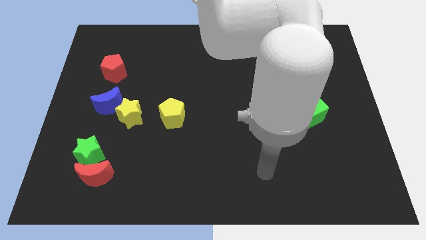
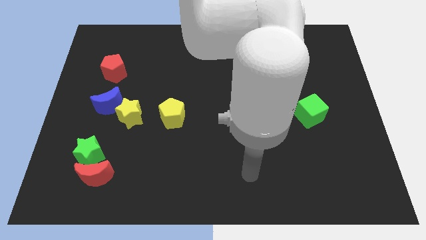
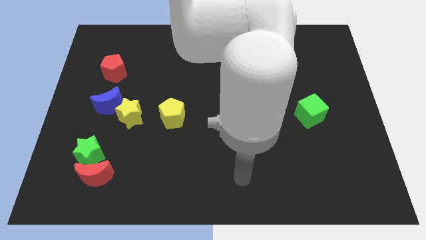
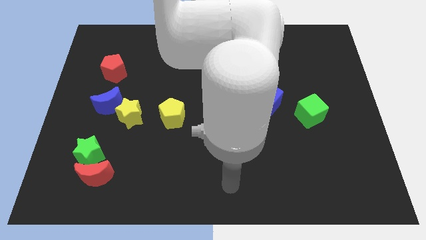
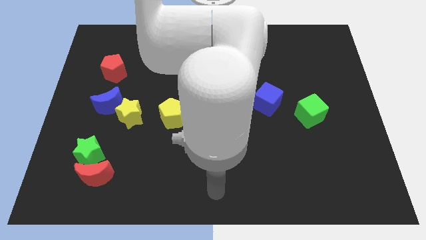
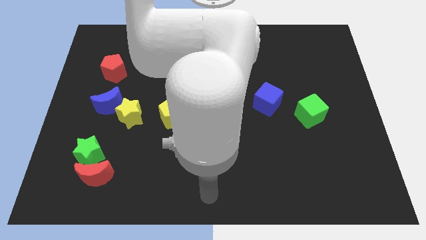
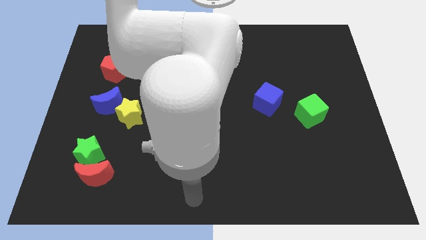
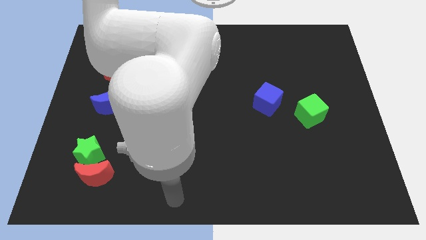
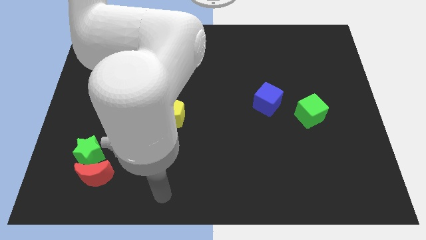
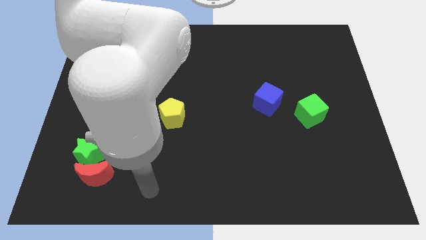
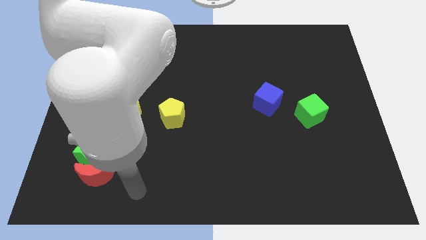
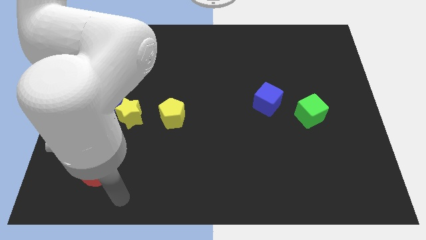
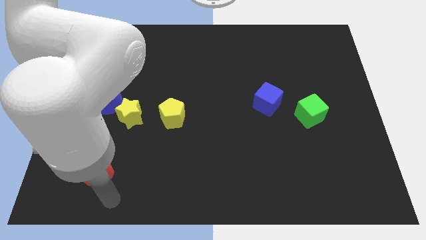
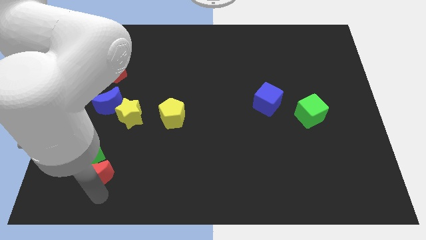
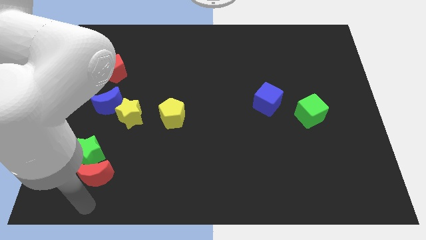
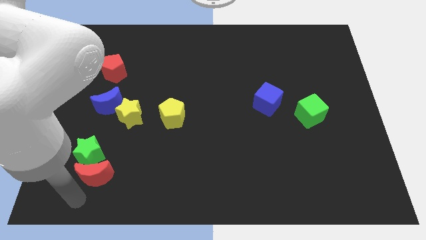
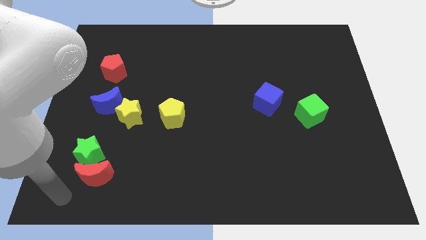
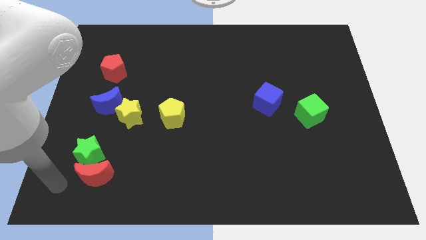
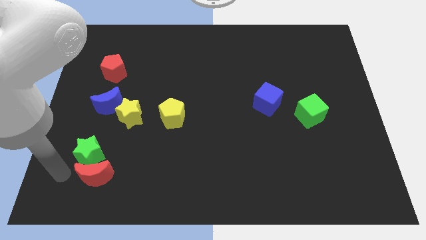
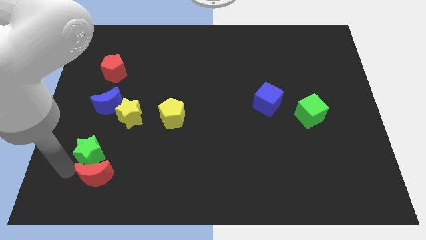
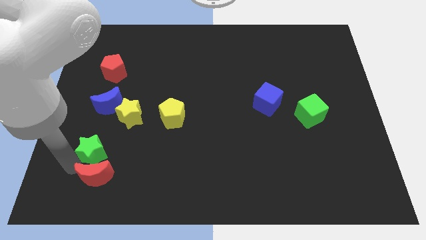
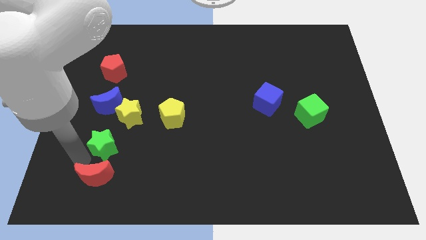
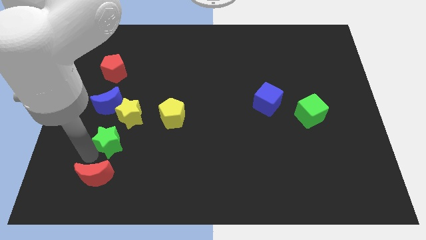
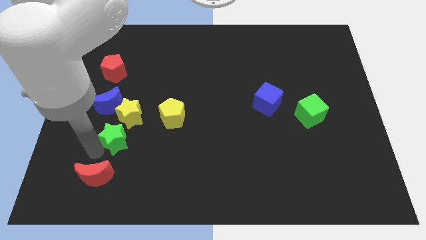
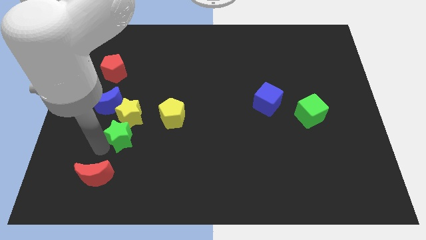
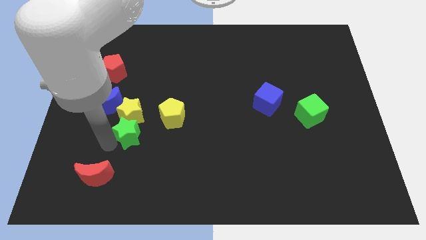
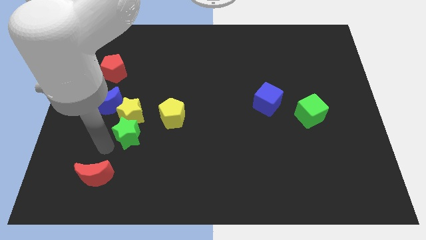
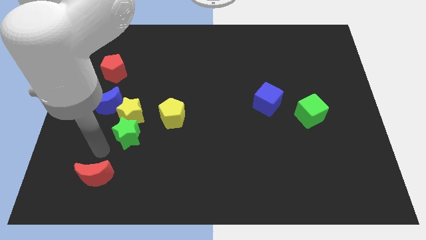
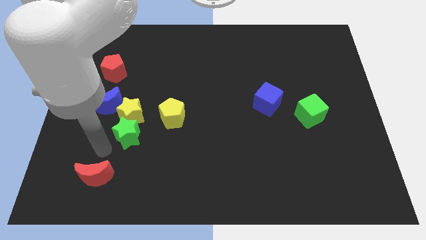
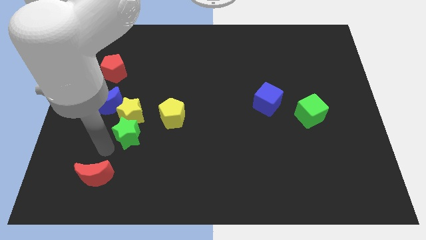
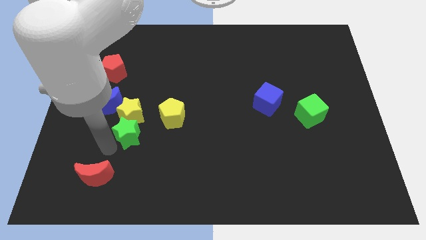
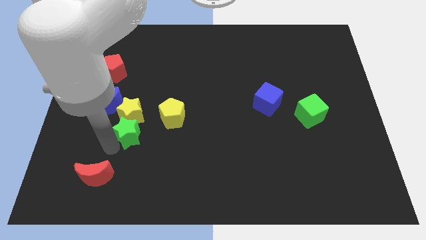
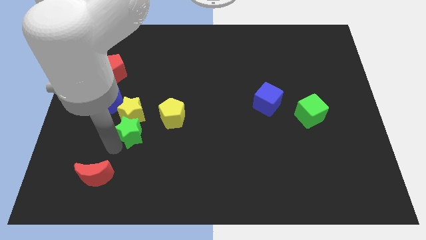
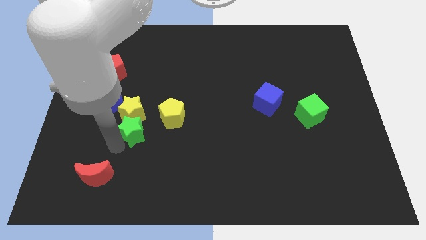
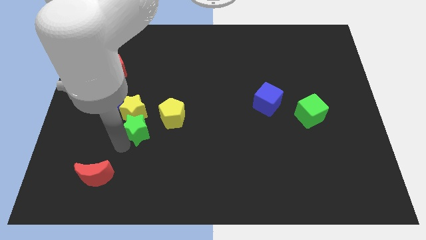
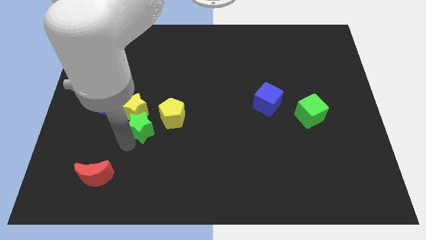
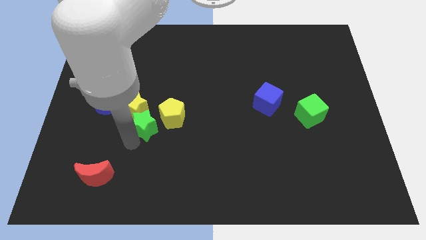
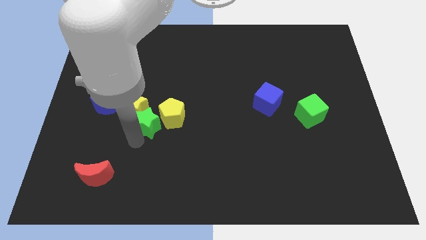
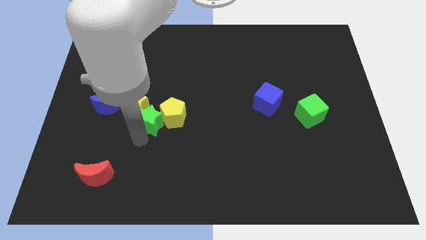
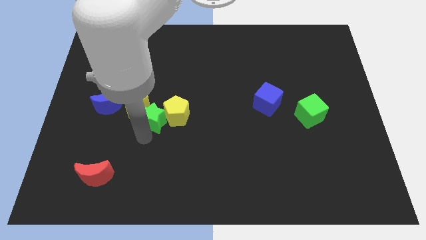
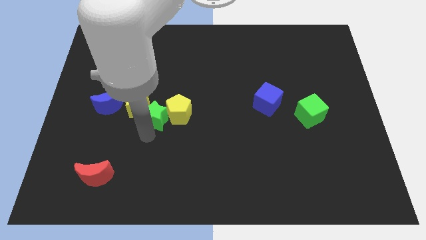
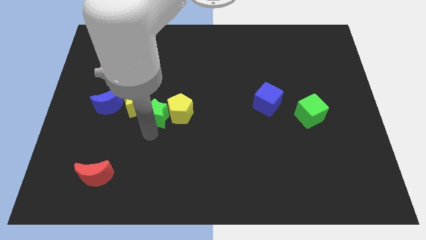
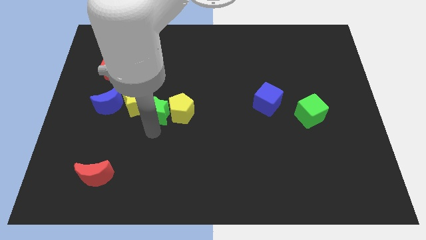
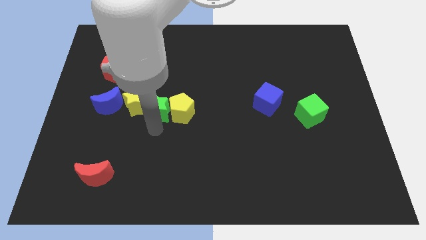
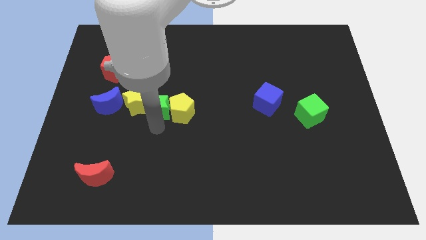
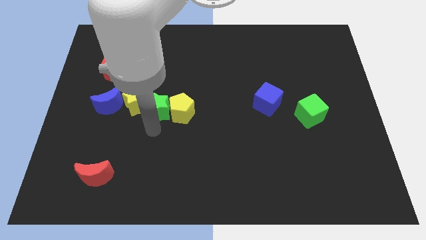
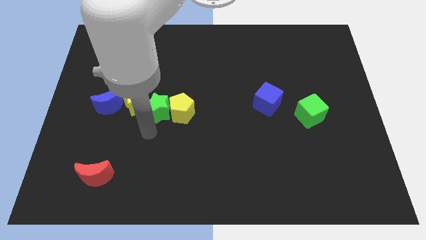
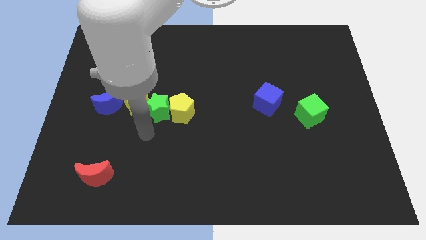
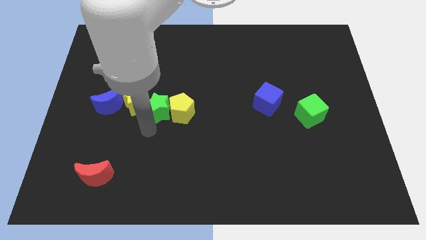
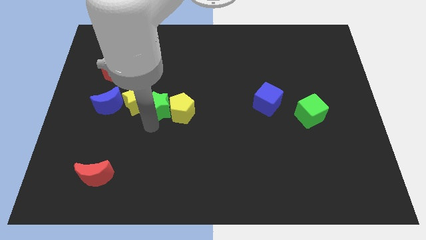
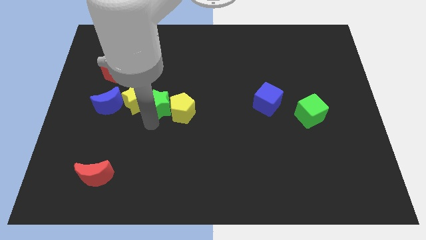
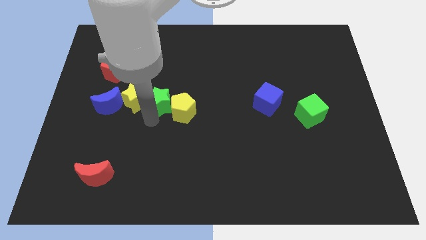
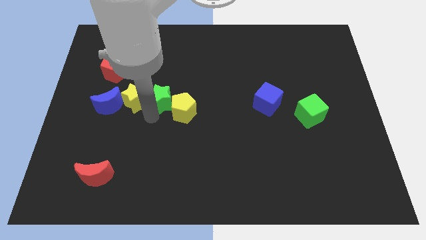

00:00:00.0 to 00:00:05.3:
push the green star upwards and right

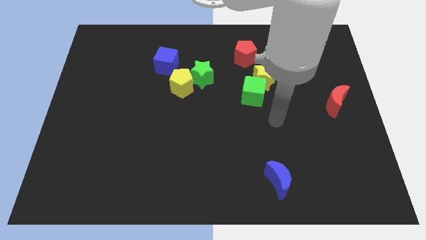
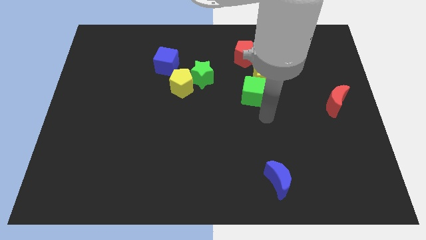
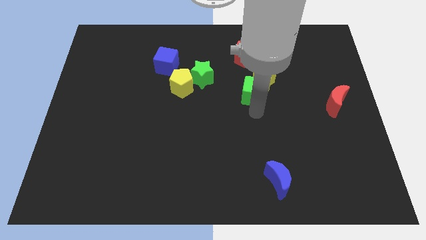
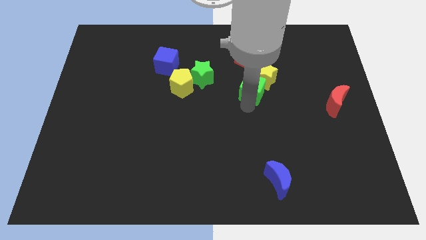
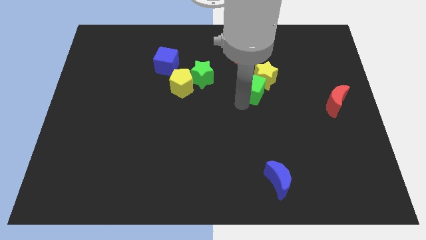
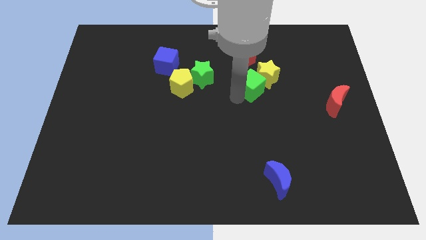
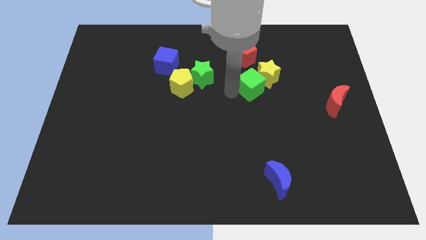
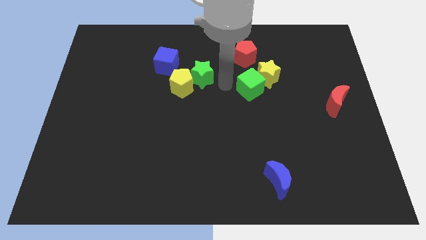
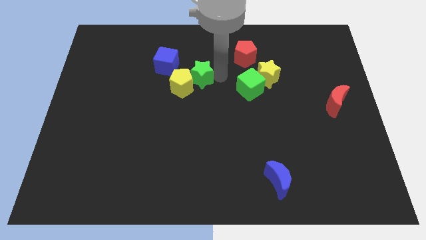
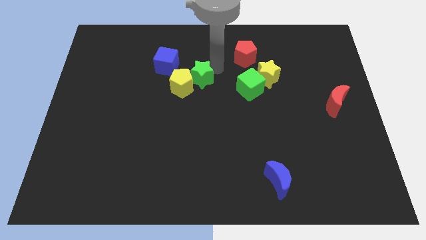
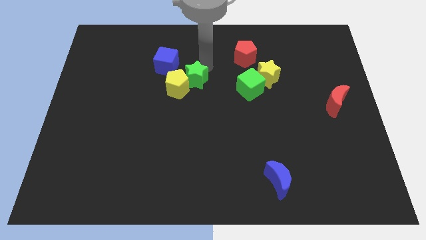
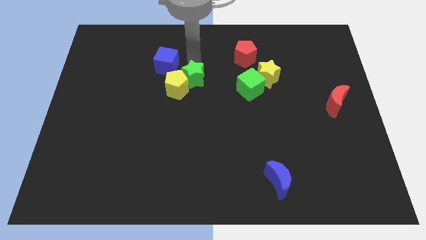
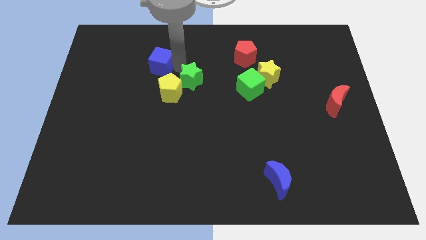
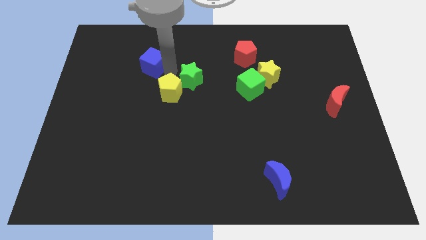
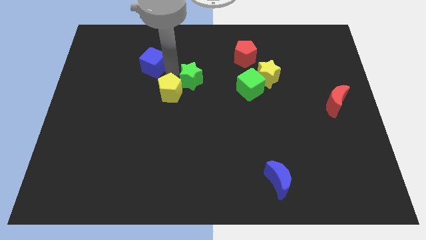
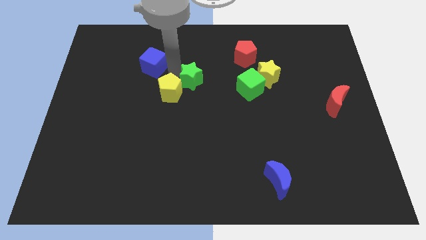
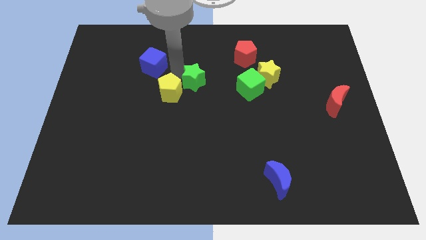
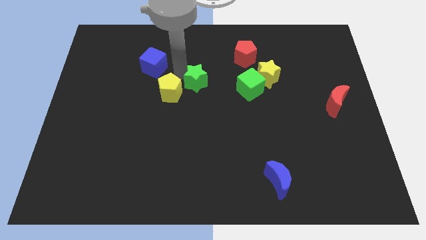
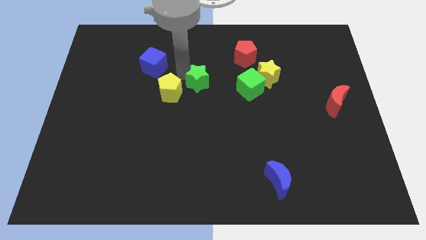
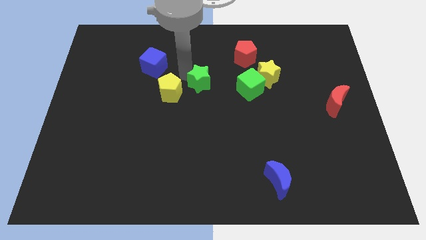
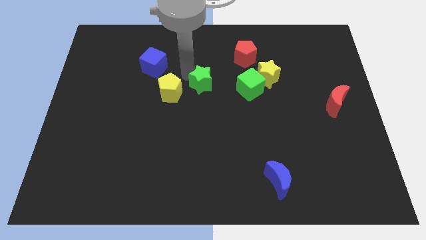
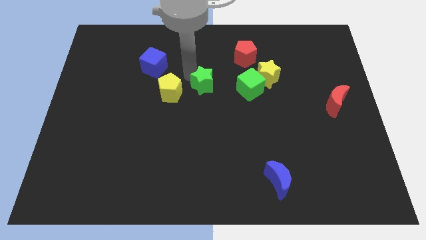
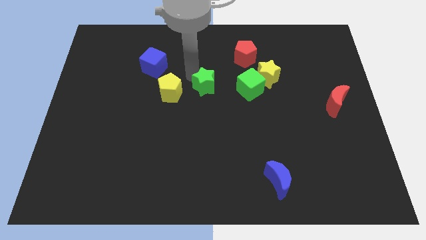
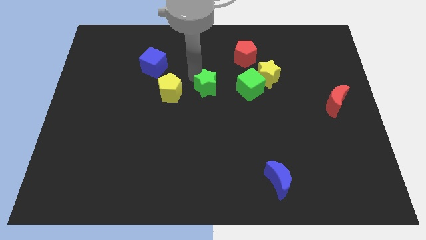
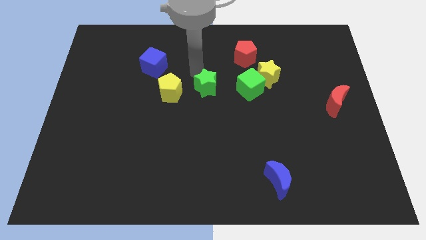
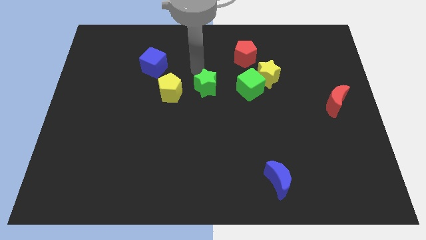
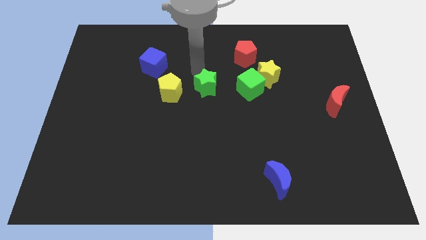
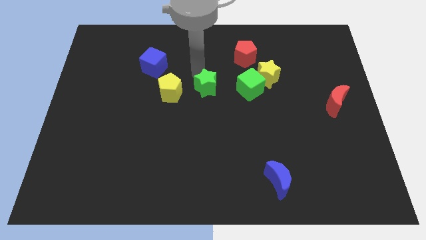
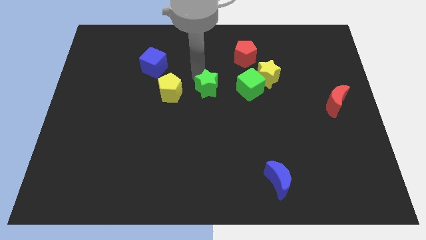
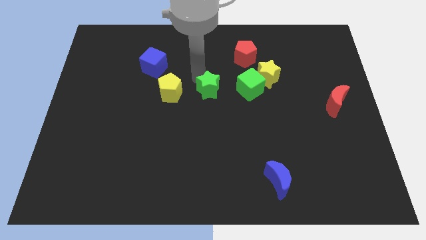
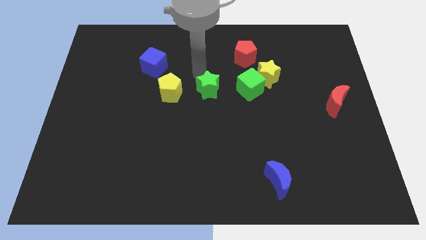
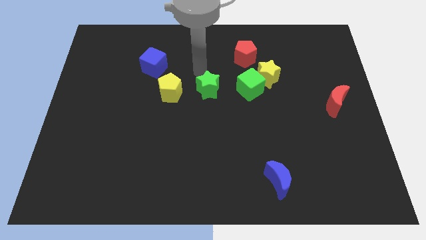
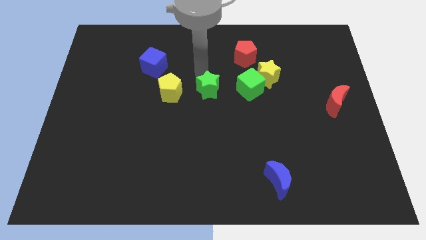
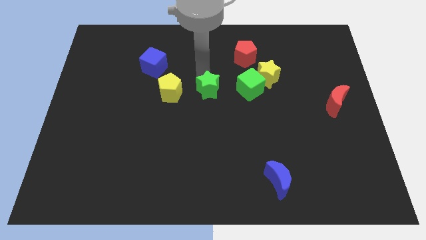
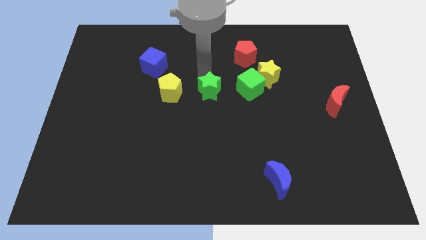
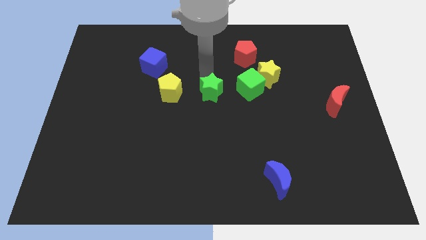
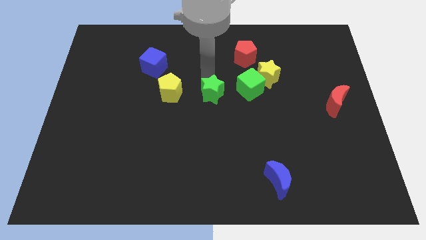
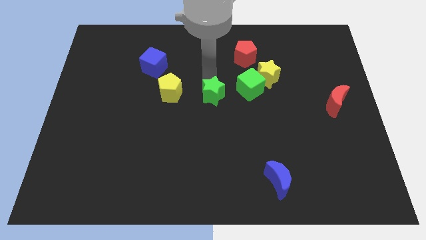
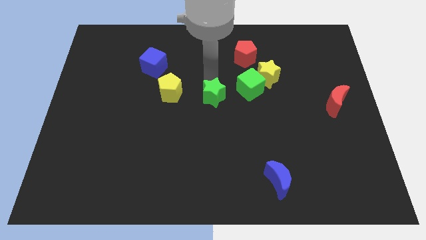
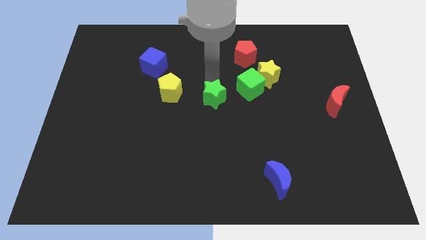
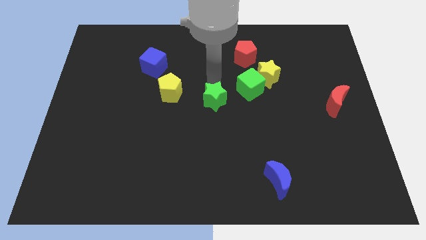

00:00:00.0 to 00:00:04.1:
move the green star downwards slightly
